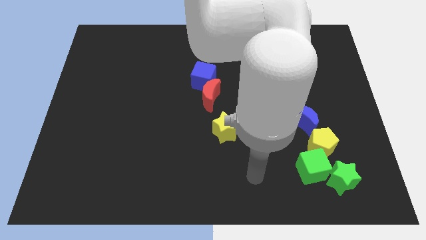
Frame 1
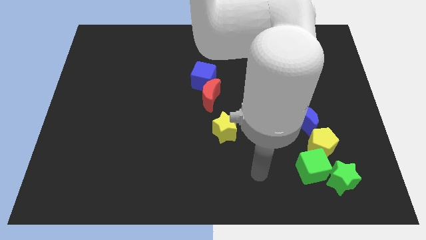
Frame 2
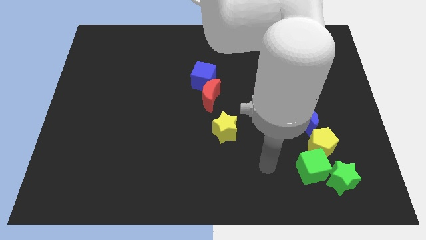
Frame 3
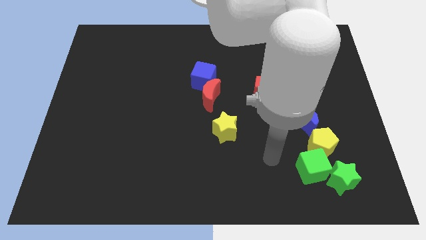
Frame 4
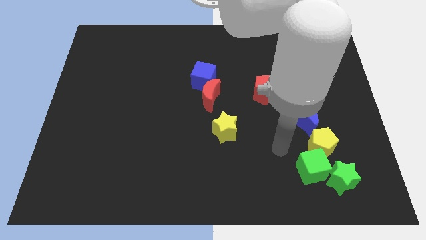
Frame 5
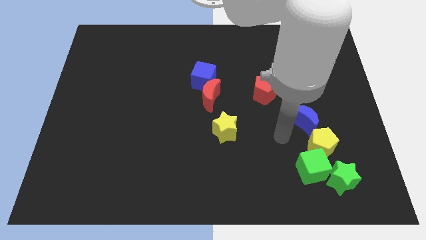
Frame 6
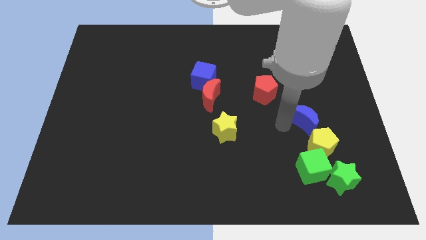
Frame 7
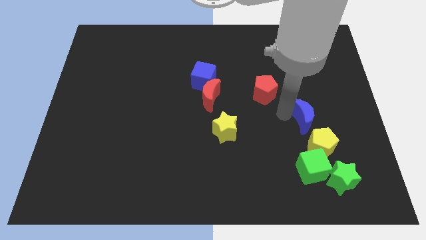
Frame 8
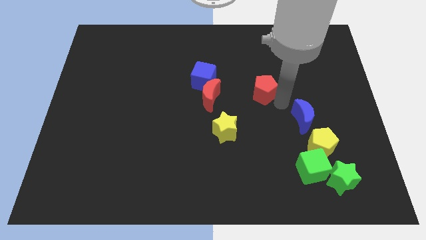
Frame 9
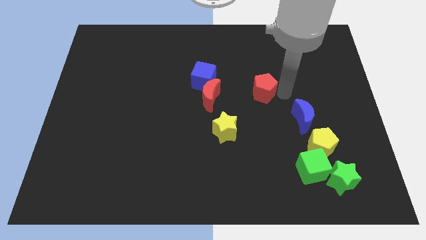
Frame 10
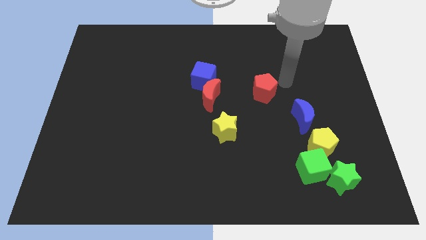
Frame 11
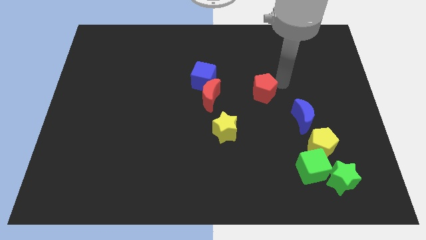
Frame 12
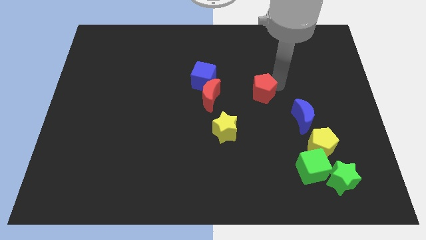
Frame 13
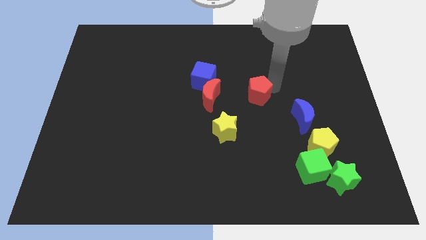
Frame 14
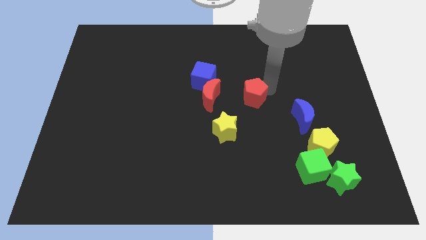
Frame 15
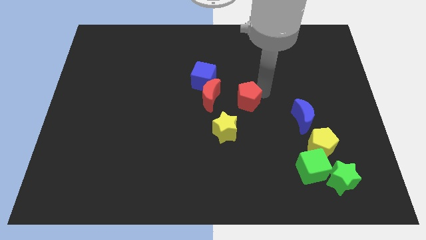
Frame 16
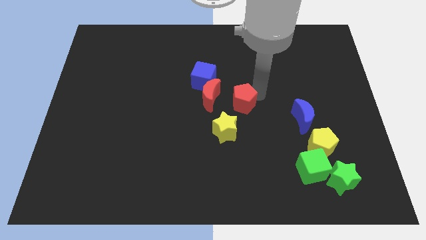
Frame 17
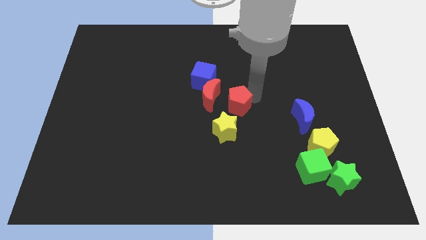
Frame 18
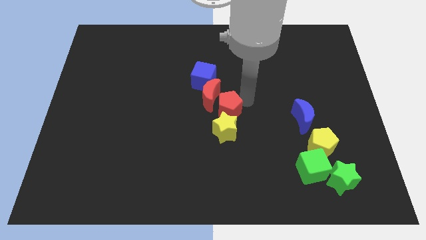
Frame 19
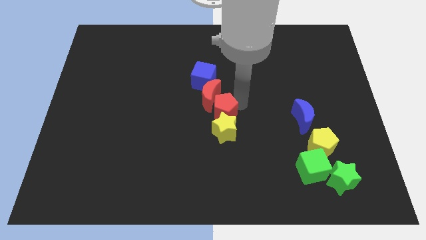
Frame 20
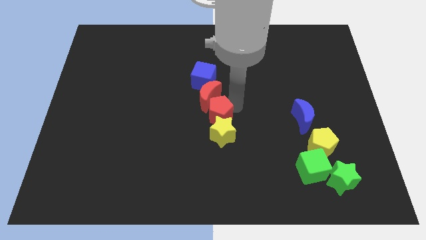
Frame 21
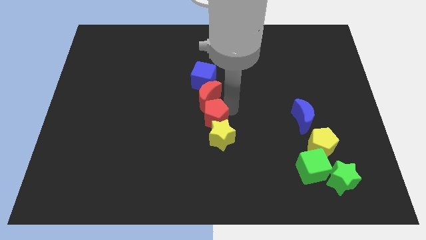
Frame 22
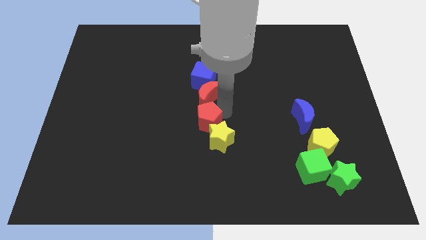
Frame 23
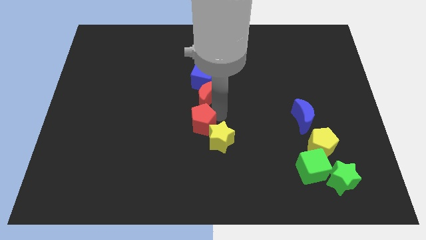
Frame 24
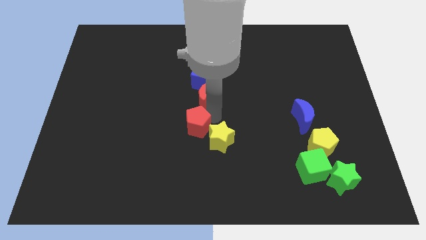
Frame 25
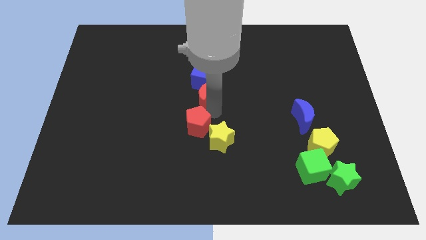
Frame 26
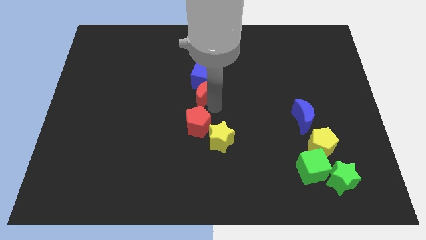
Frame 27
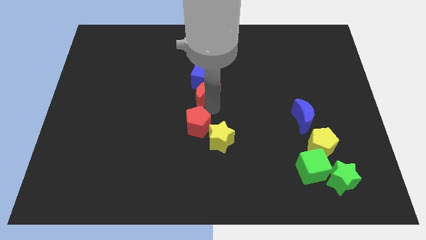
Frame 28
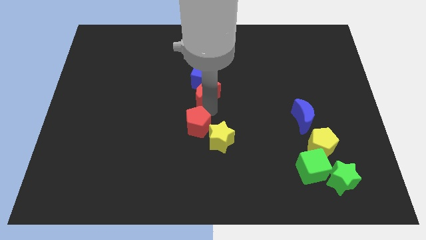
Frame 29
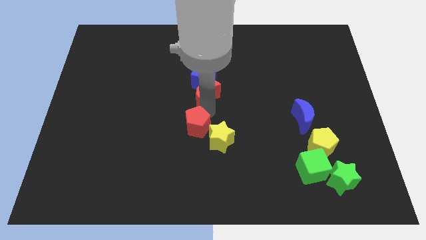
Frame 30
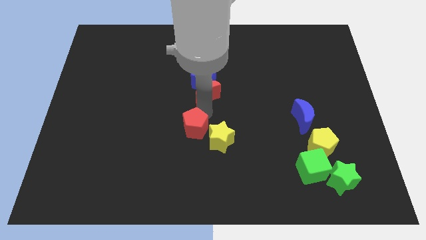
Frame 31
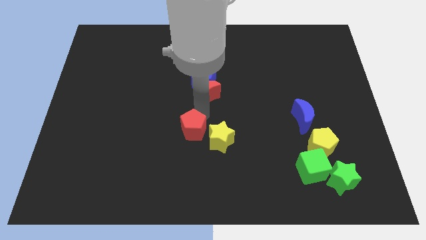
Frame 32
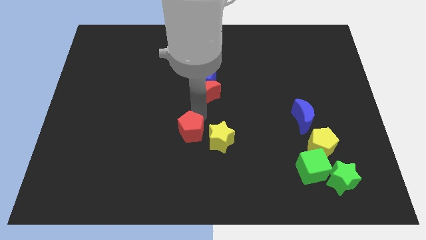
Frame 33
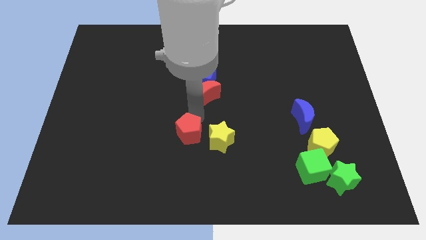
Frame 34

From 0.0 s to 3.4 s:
push the red pentagon down and to the left

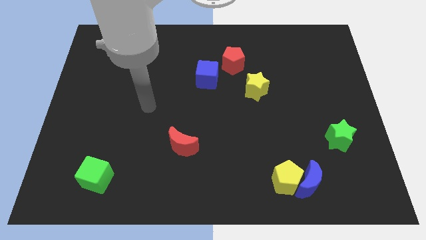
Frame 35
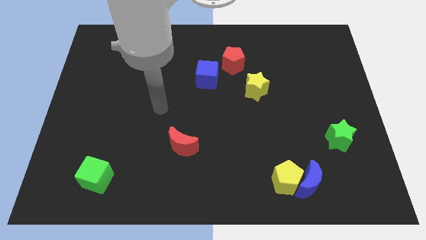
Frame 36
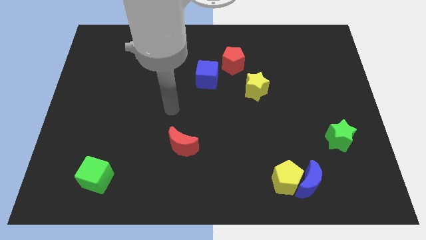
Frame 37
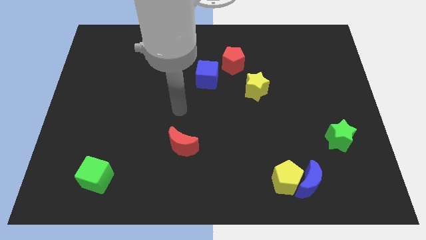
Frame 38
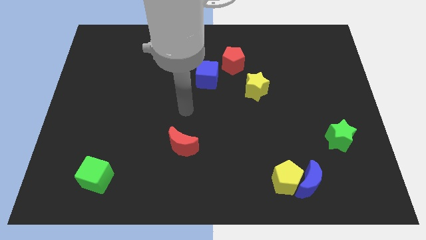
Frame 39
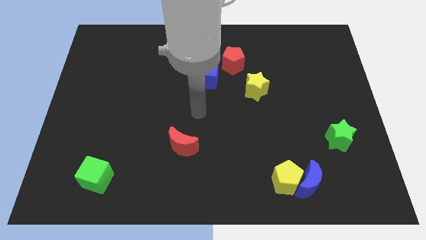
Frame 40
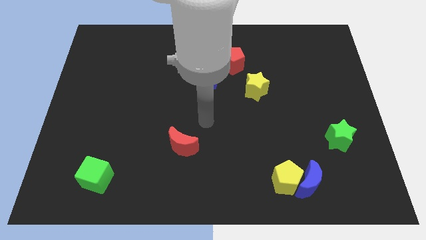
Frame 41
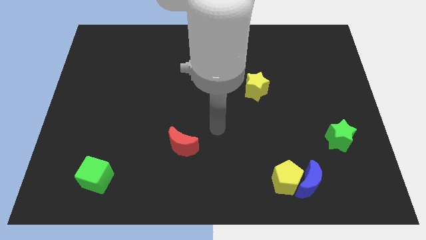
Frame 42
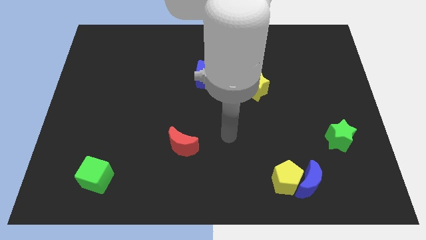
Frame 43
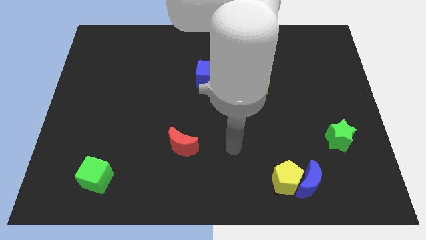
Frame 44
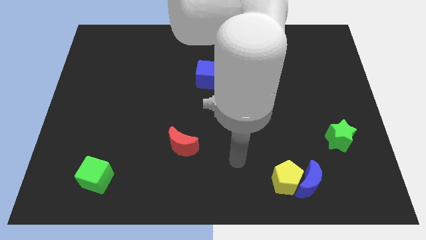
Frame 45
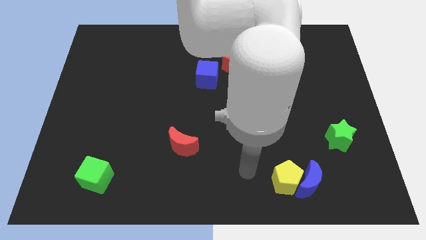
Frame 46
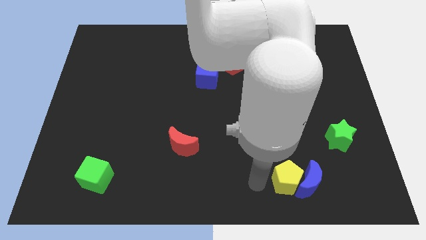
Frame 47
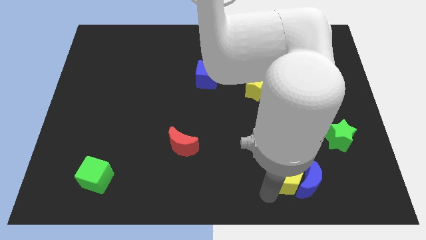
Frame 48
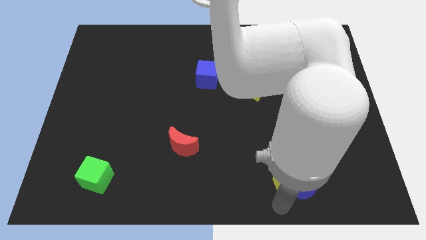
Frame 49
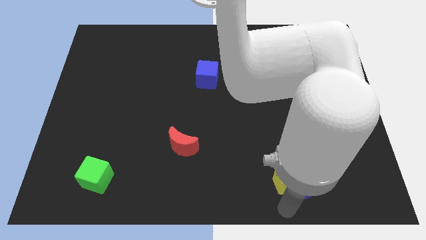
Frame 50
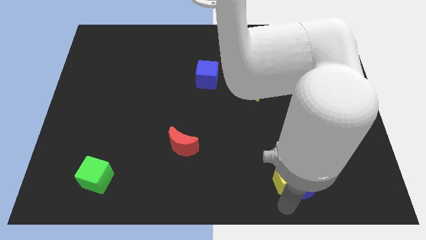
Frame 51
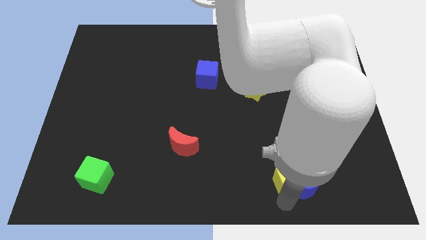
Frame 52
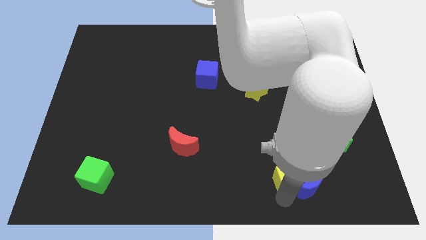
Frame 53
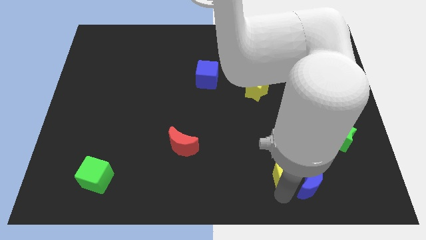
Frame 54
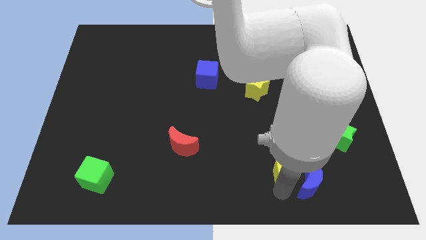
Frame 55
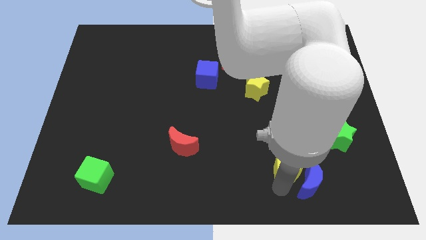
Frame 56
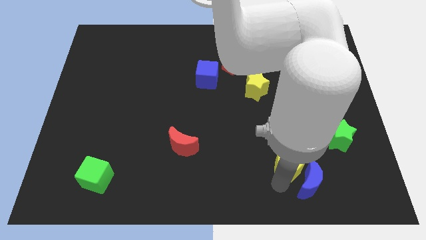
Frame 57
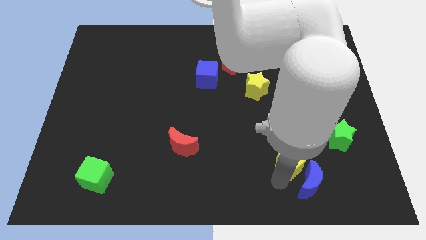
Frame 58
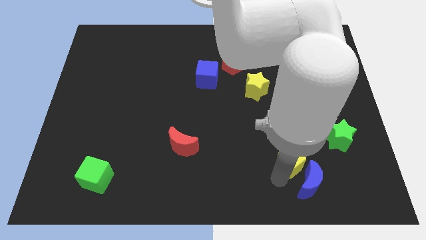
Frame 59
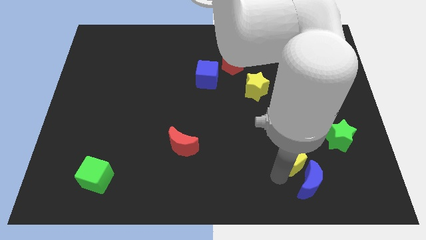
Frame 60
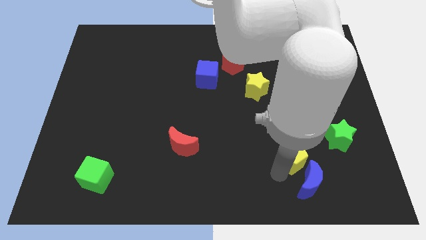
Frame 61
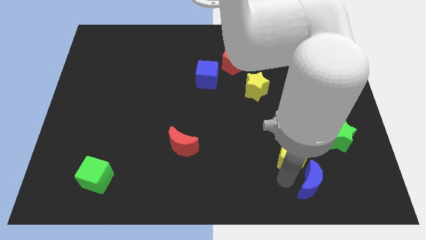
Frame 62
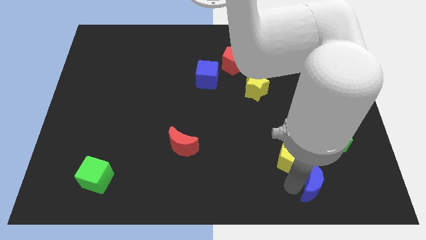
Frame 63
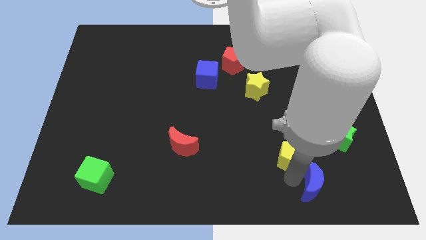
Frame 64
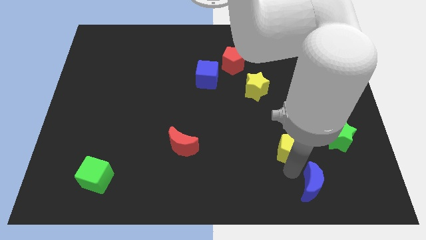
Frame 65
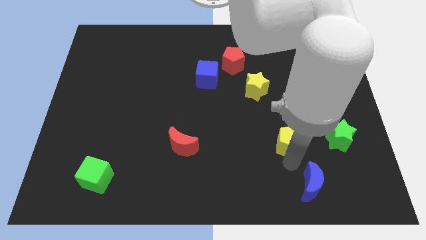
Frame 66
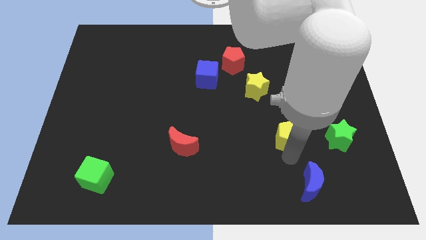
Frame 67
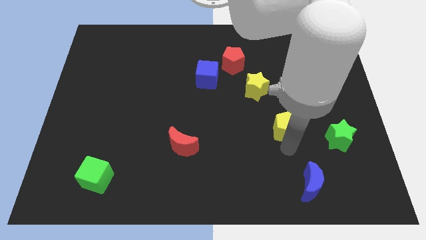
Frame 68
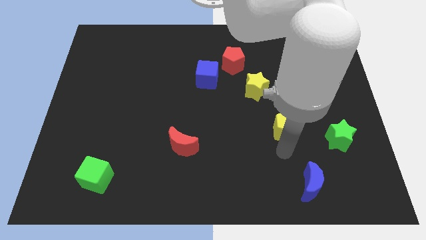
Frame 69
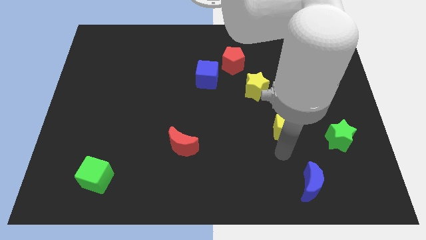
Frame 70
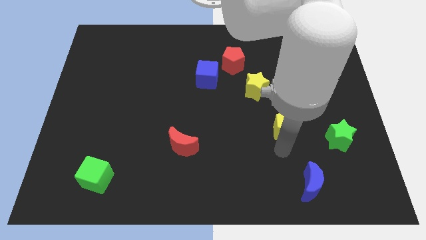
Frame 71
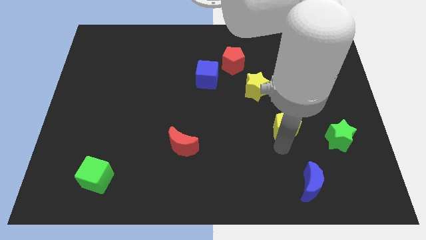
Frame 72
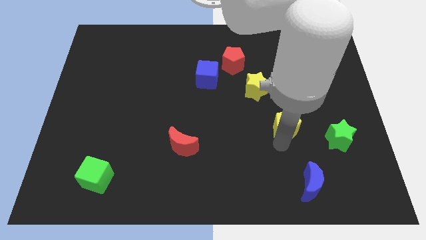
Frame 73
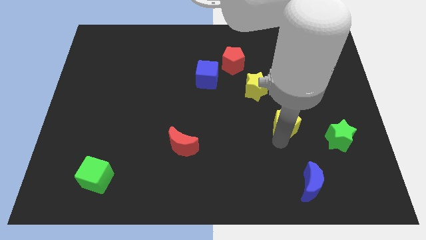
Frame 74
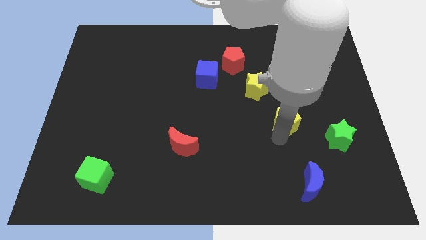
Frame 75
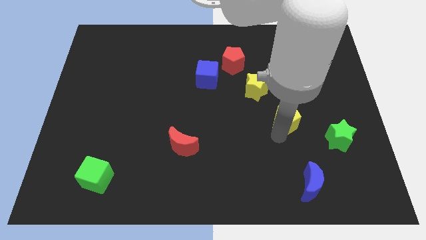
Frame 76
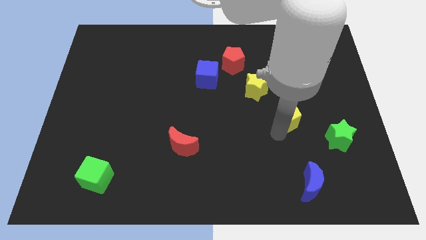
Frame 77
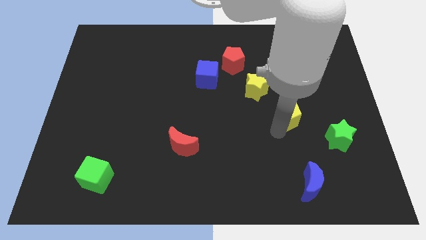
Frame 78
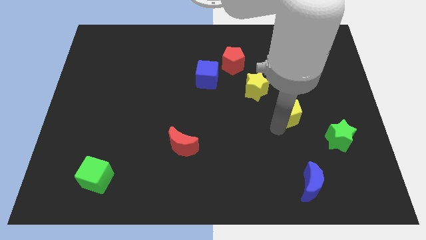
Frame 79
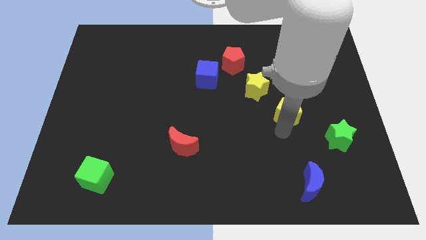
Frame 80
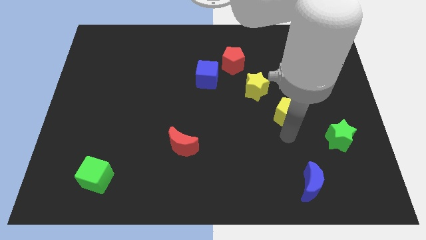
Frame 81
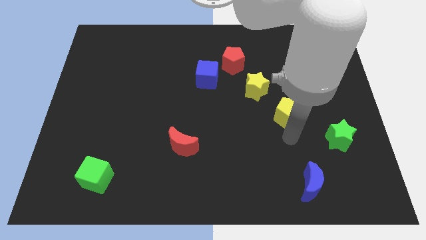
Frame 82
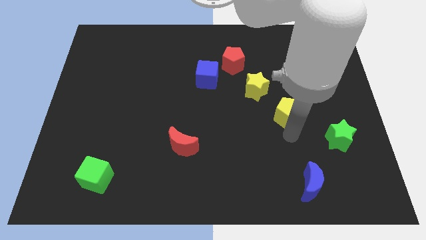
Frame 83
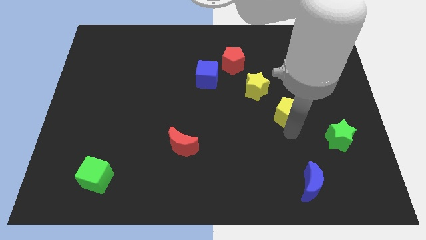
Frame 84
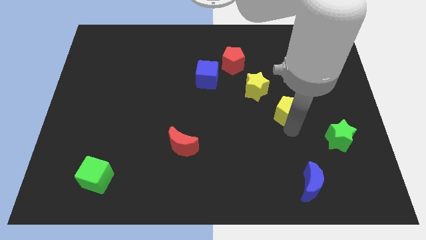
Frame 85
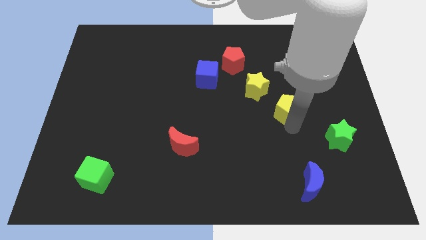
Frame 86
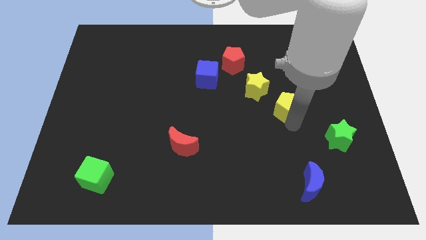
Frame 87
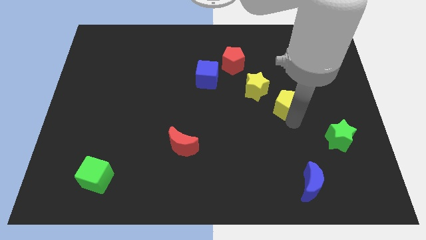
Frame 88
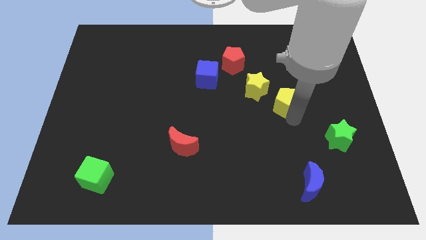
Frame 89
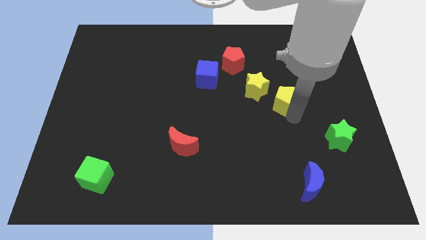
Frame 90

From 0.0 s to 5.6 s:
push the yellow pentagon up
